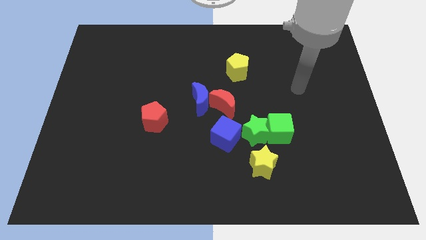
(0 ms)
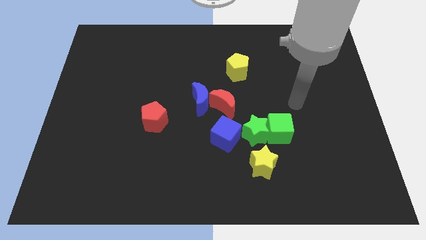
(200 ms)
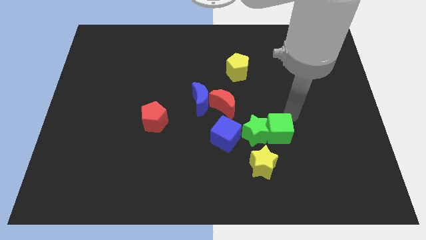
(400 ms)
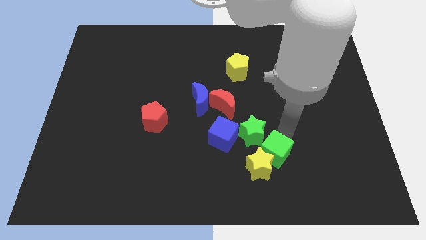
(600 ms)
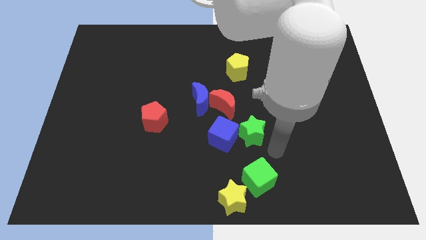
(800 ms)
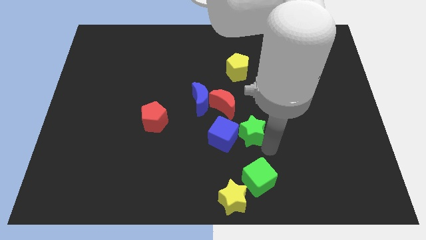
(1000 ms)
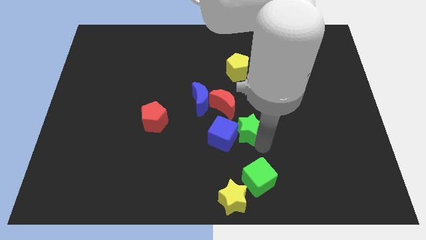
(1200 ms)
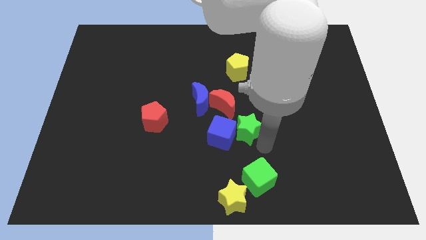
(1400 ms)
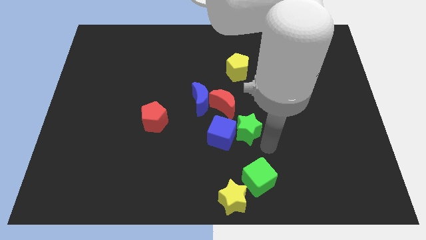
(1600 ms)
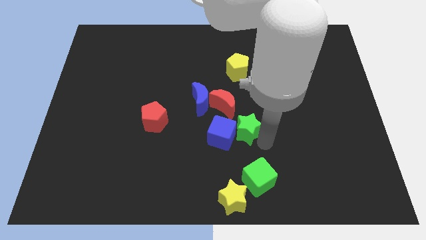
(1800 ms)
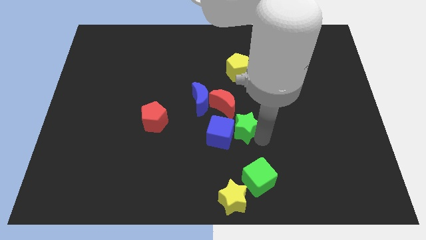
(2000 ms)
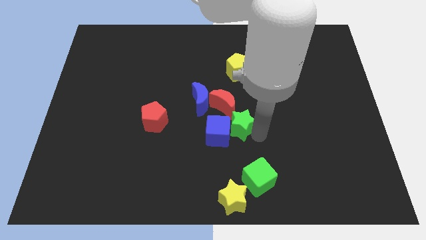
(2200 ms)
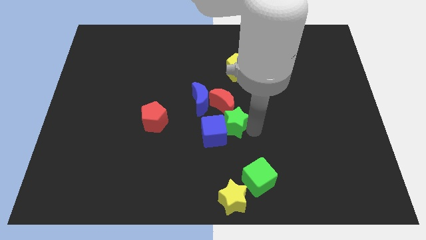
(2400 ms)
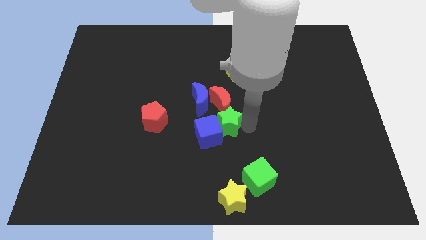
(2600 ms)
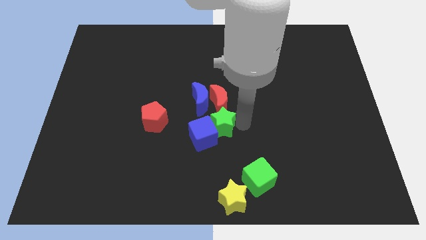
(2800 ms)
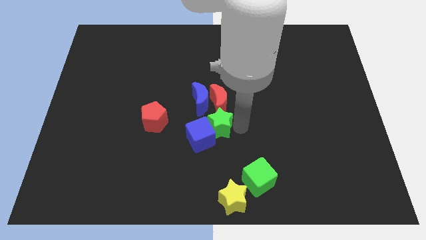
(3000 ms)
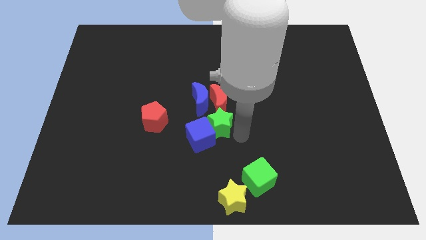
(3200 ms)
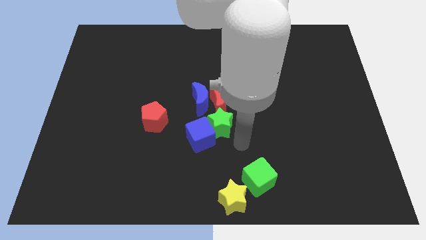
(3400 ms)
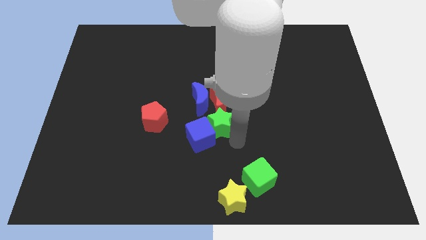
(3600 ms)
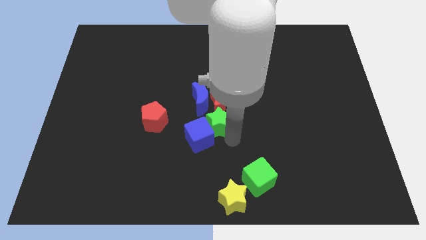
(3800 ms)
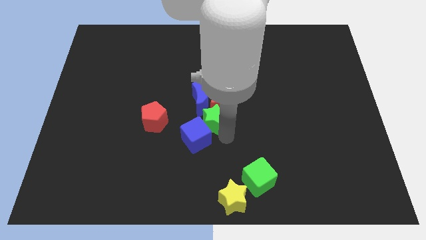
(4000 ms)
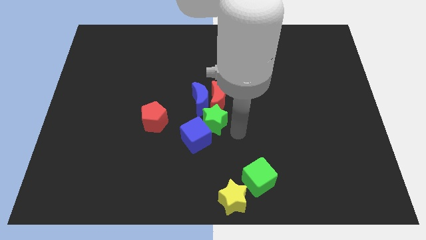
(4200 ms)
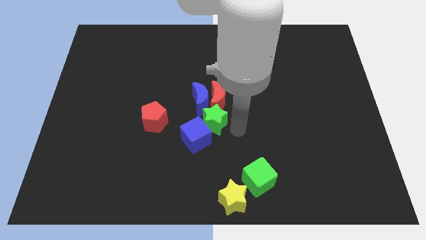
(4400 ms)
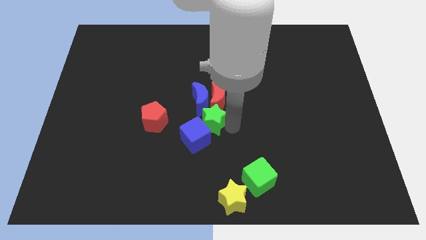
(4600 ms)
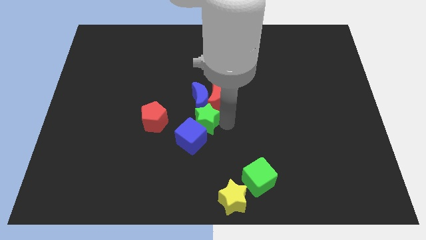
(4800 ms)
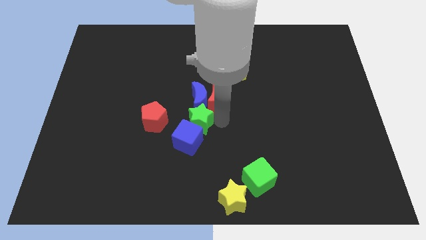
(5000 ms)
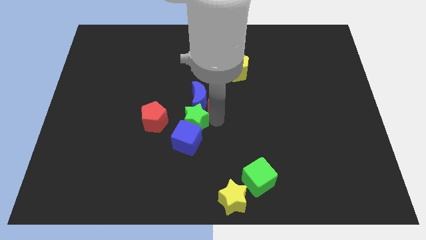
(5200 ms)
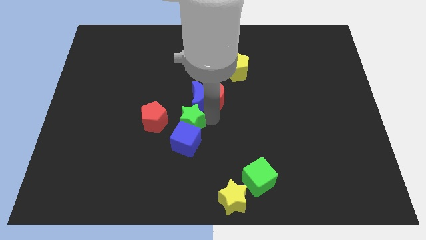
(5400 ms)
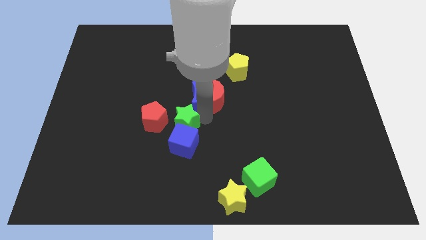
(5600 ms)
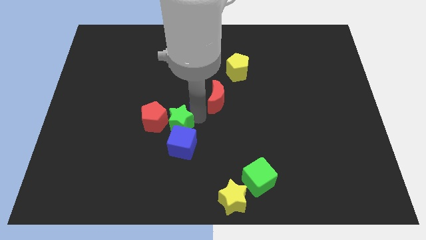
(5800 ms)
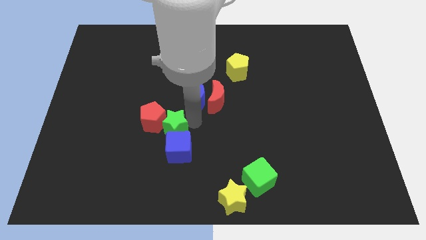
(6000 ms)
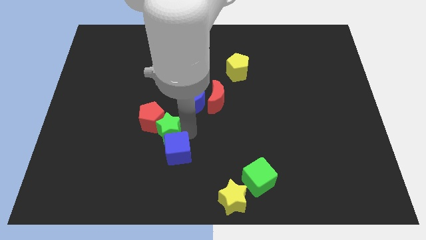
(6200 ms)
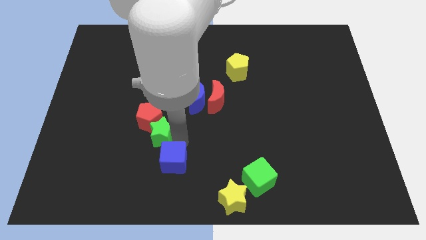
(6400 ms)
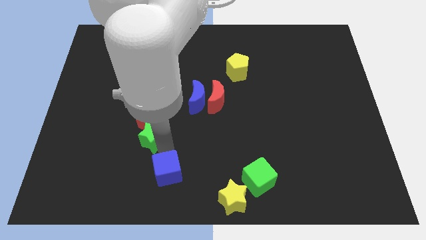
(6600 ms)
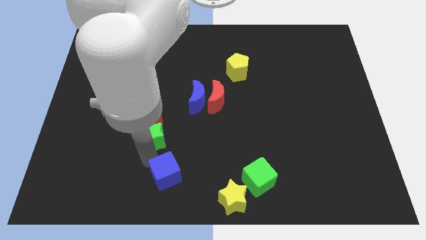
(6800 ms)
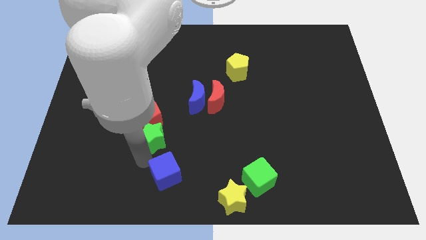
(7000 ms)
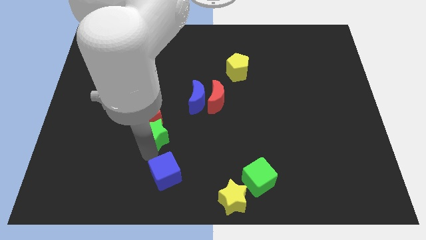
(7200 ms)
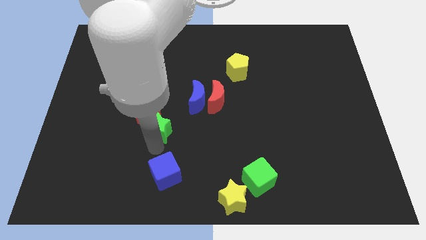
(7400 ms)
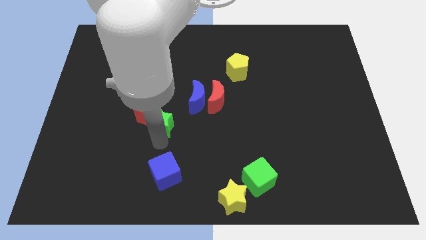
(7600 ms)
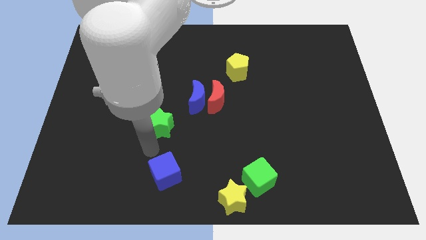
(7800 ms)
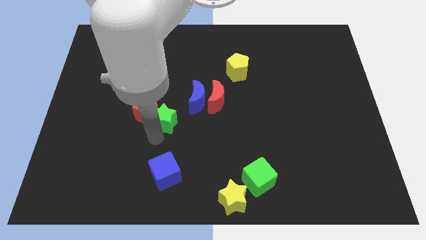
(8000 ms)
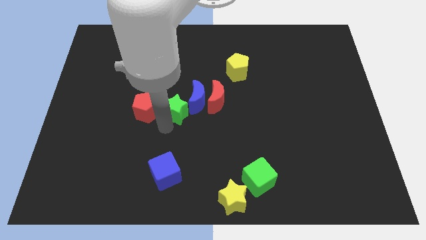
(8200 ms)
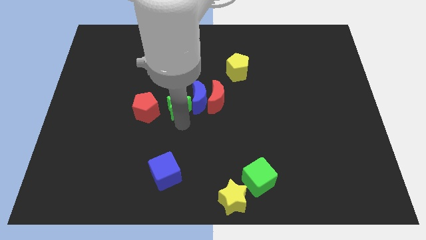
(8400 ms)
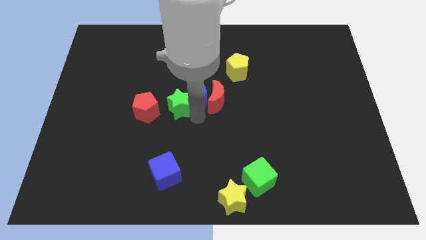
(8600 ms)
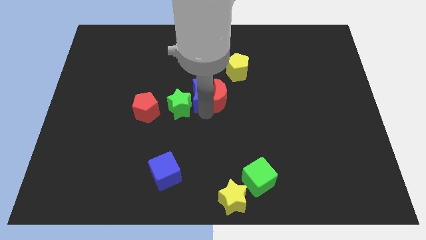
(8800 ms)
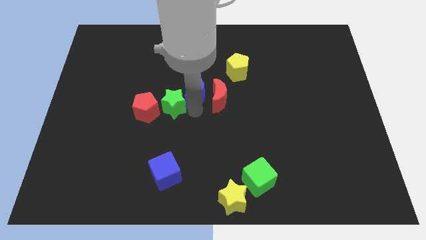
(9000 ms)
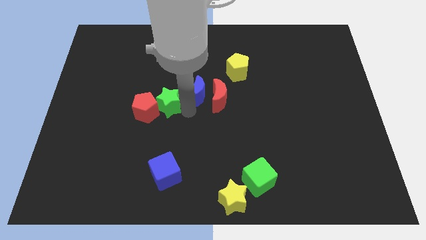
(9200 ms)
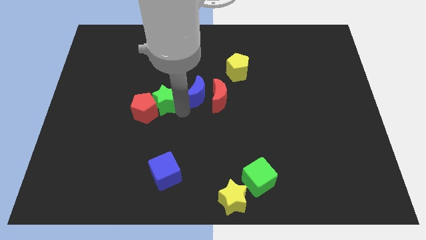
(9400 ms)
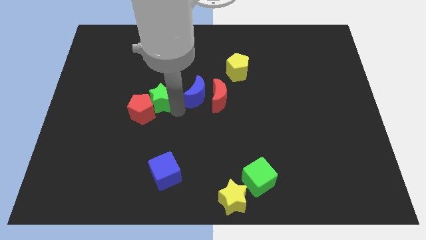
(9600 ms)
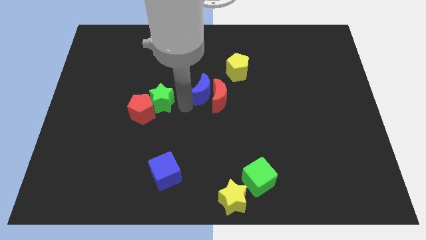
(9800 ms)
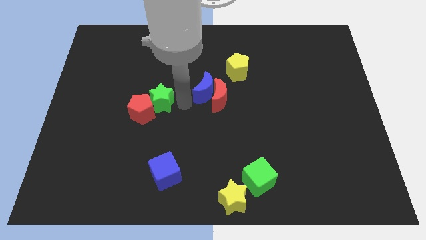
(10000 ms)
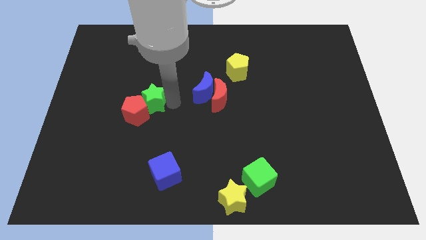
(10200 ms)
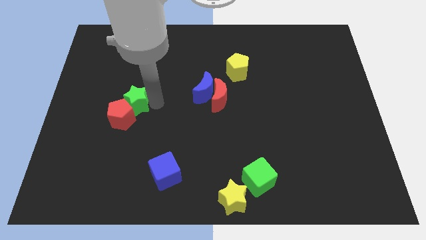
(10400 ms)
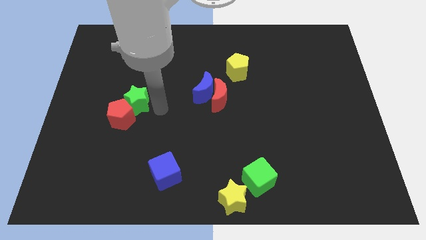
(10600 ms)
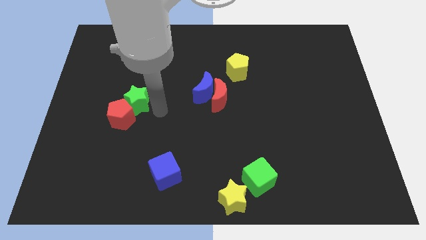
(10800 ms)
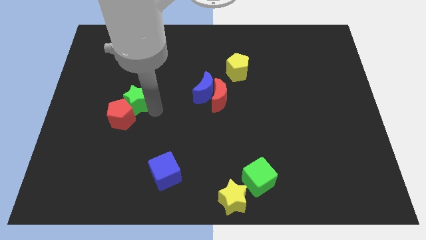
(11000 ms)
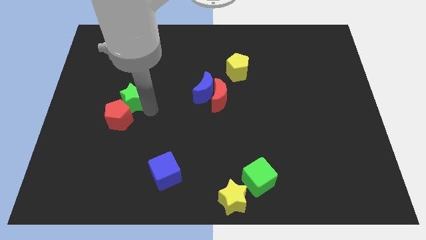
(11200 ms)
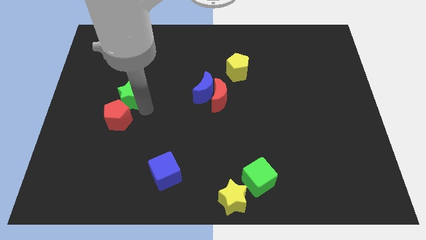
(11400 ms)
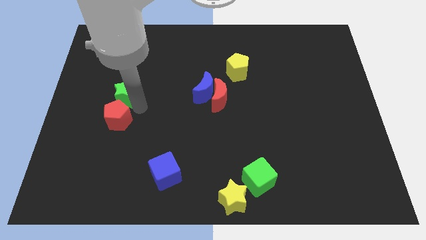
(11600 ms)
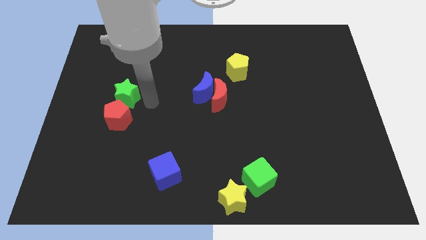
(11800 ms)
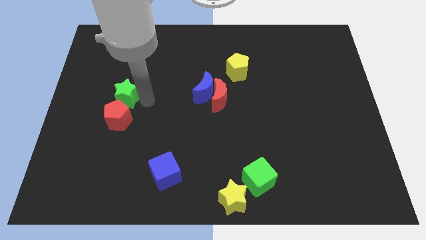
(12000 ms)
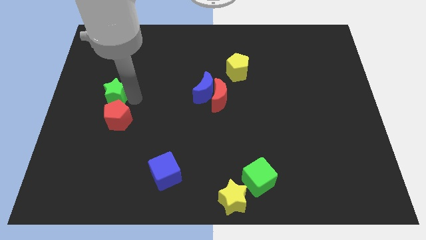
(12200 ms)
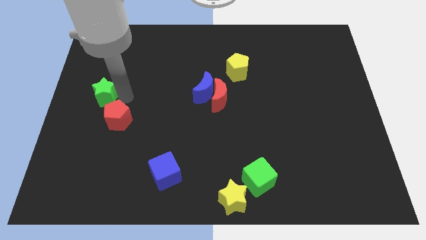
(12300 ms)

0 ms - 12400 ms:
move the green star to the left side
